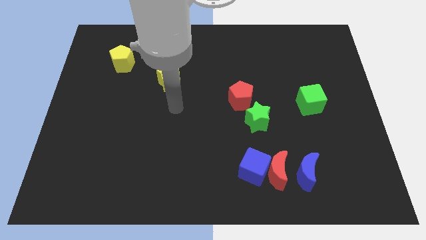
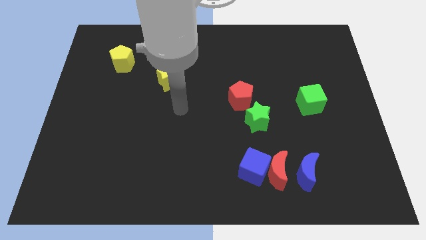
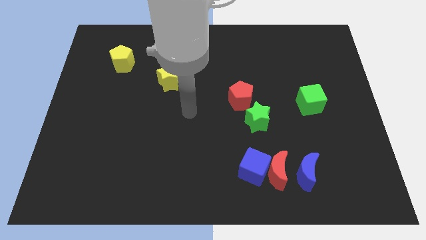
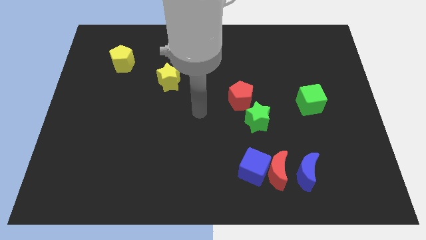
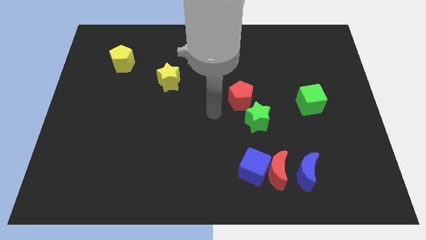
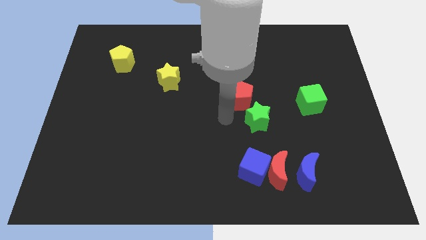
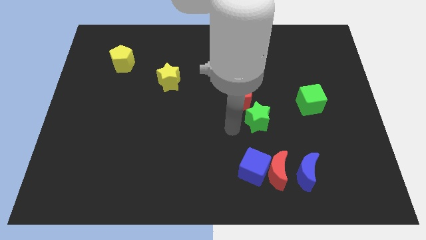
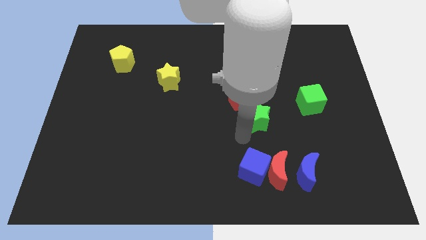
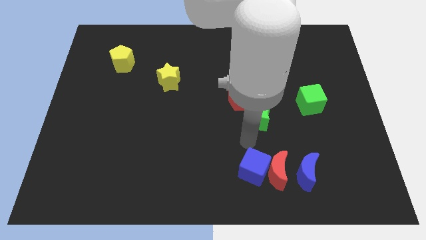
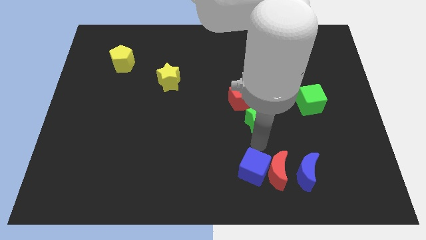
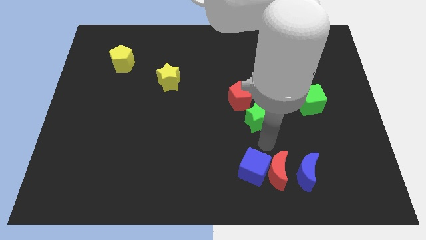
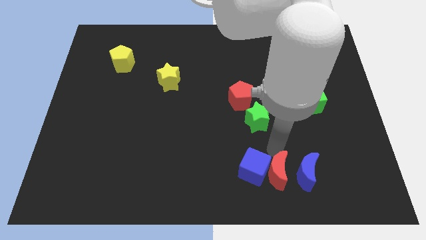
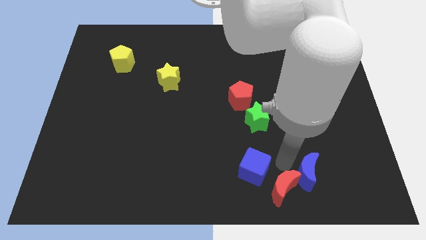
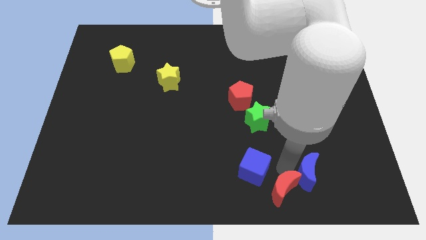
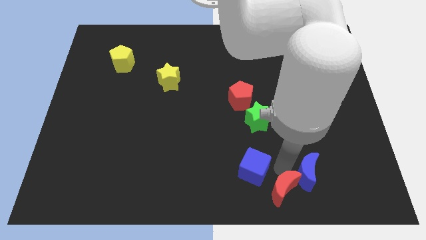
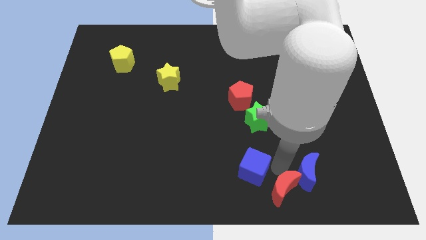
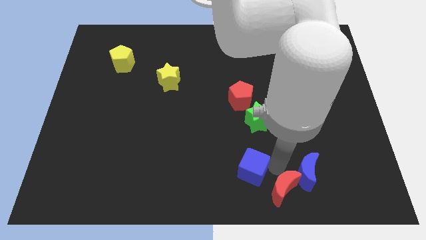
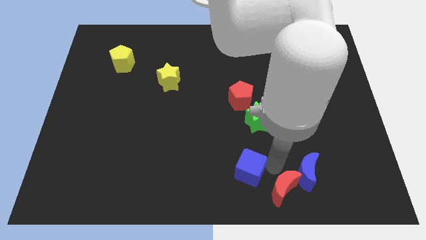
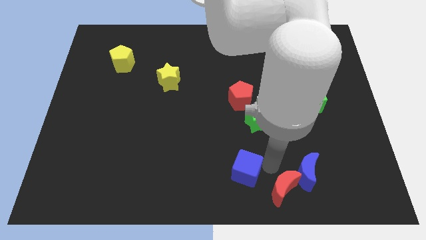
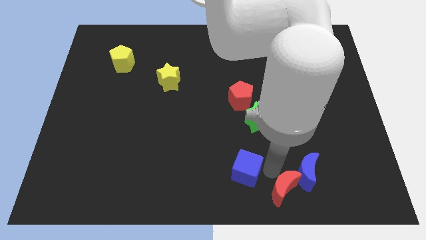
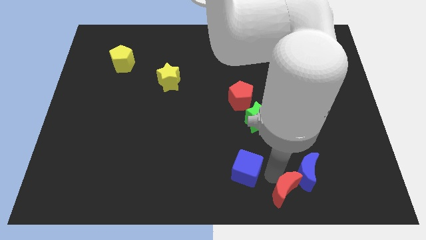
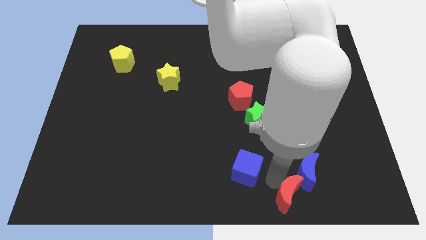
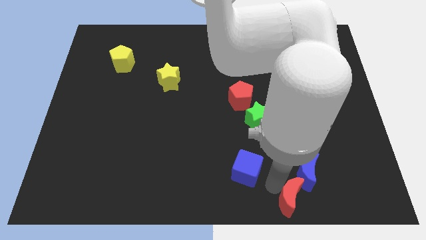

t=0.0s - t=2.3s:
move the blue cube away from the red moon

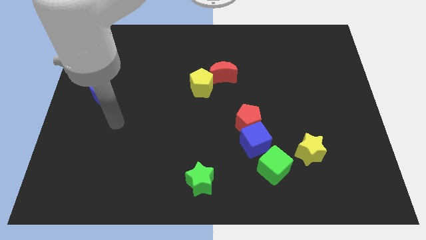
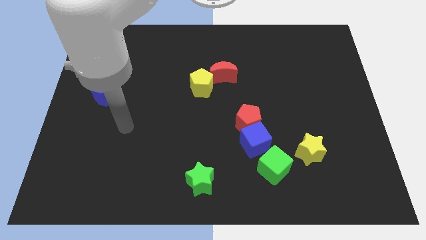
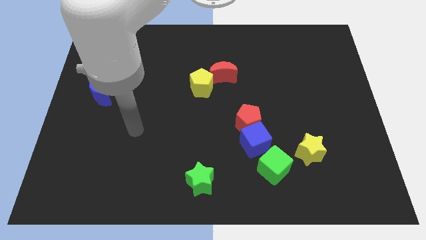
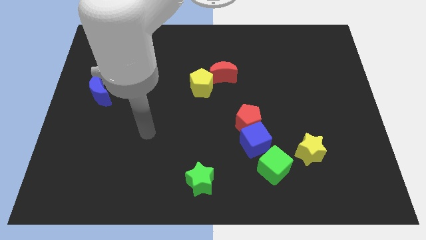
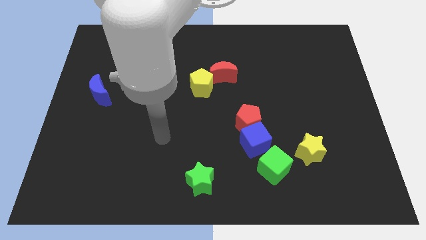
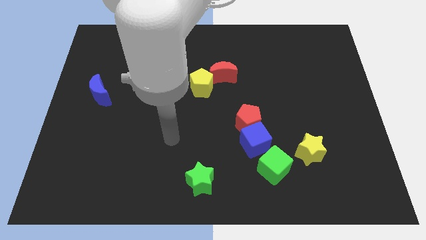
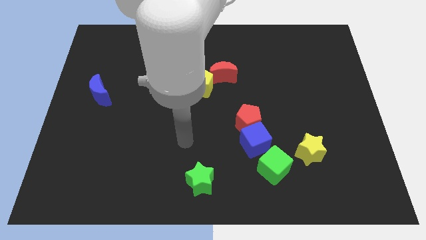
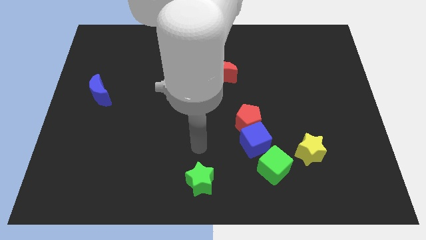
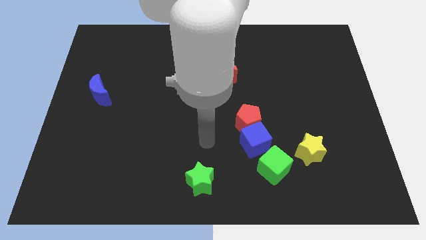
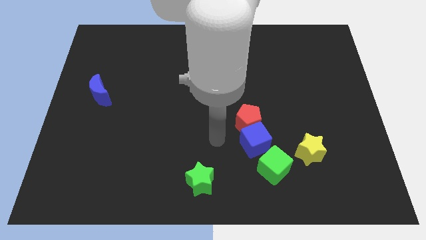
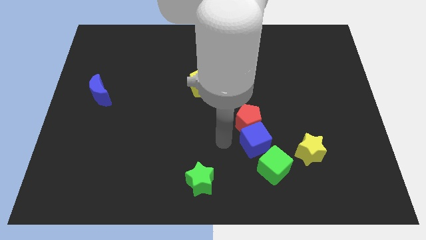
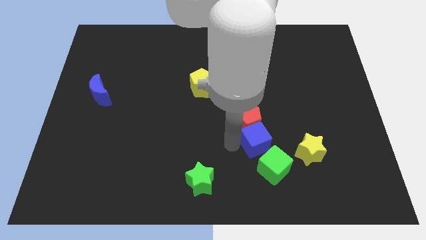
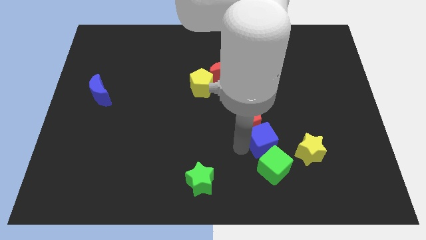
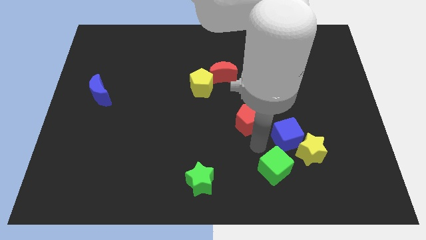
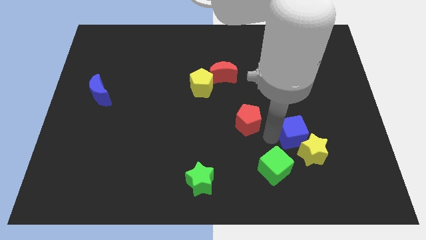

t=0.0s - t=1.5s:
move the red pentagon away from the blue cube

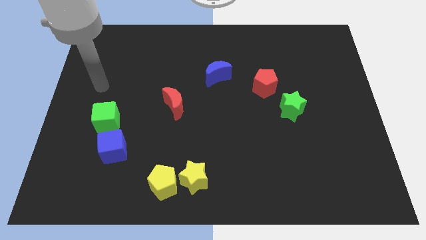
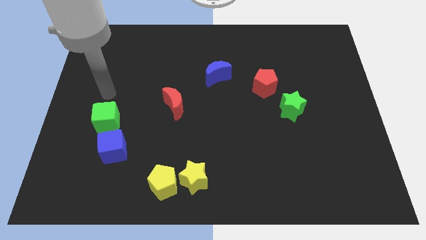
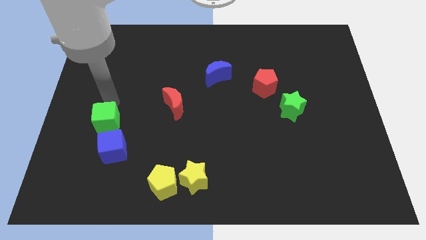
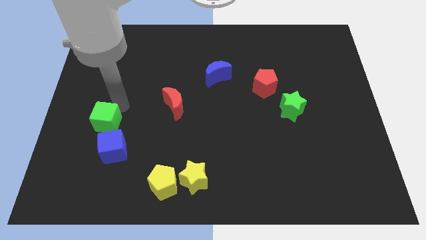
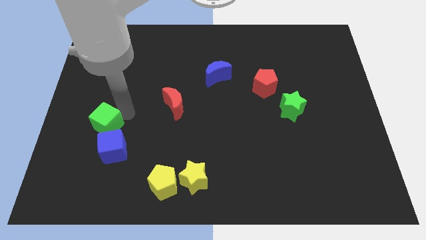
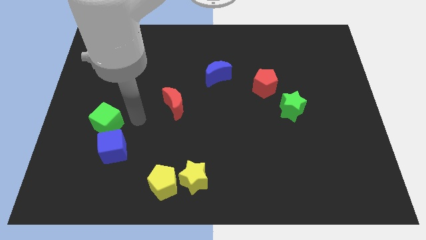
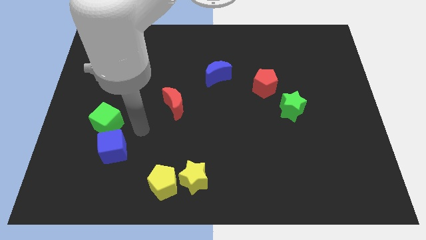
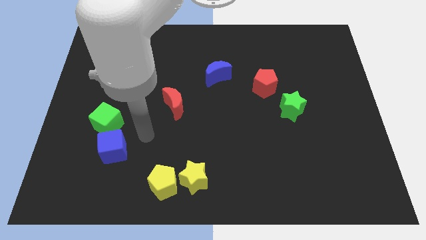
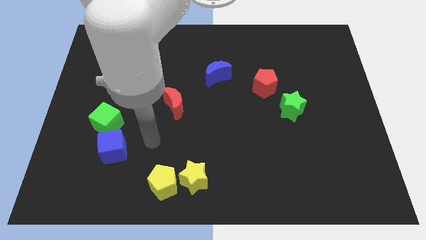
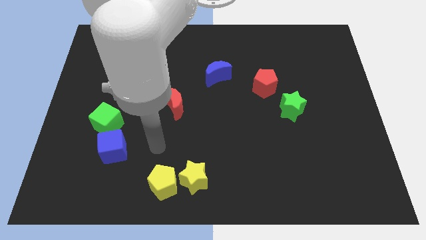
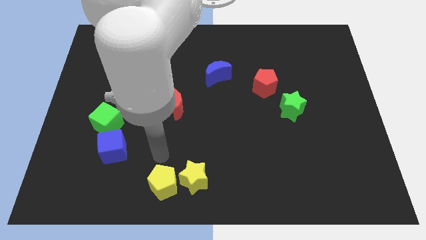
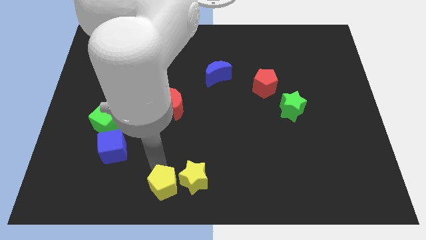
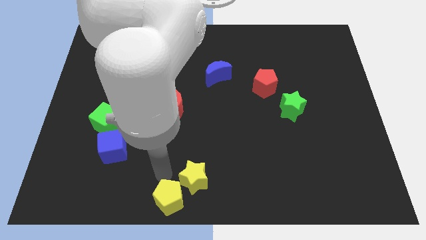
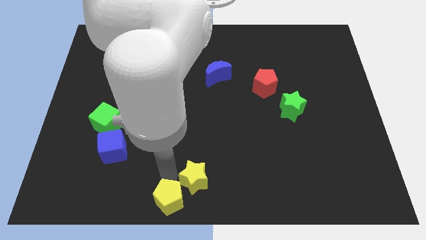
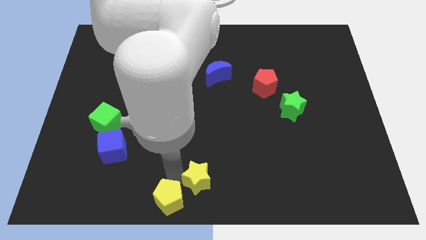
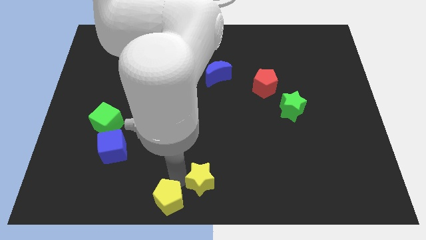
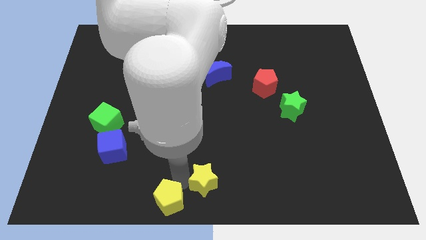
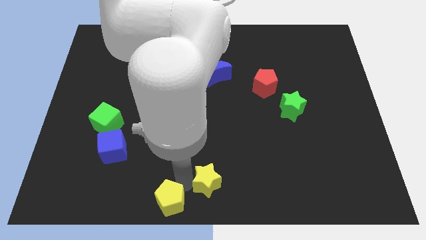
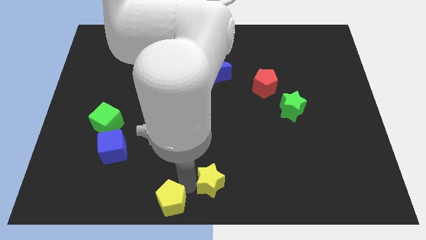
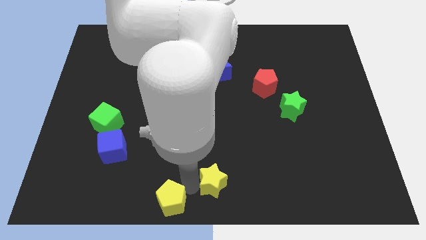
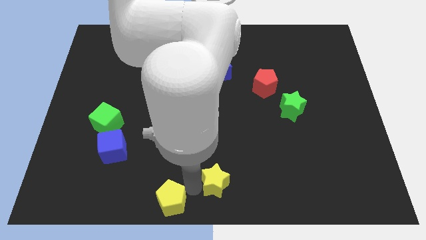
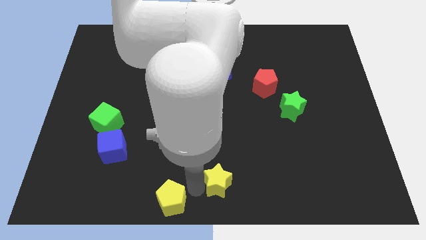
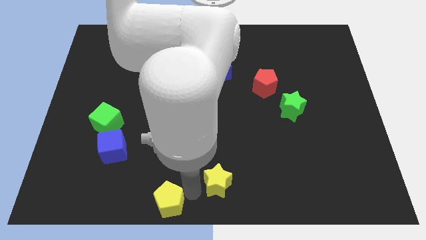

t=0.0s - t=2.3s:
separate the yellow star from the yellow pentagon

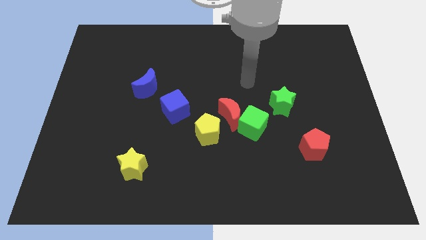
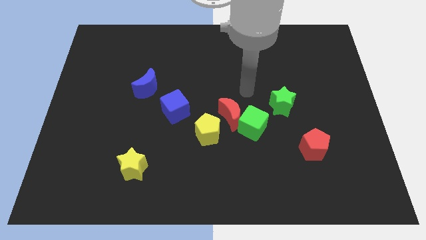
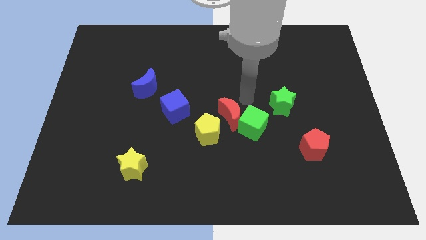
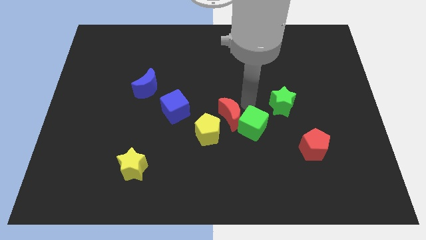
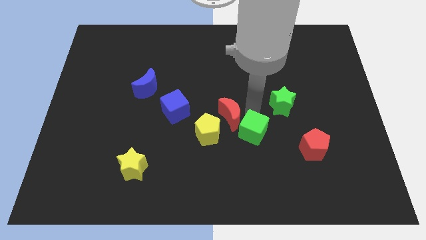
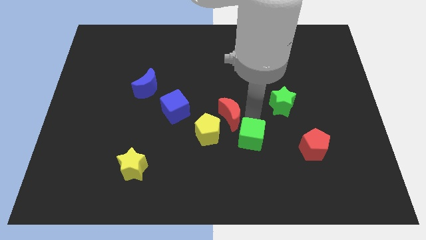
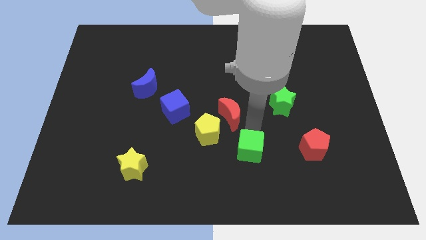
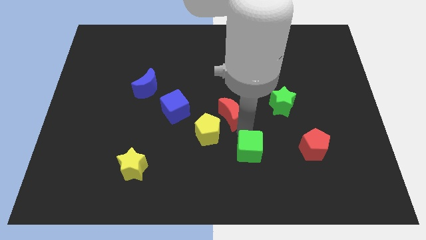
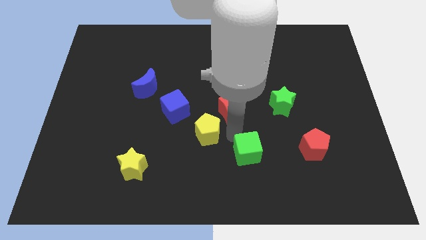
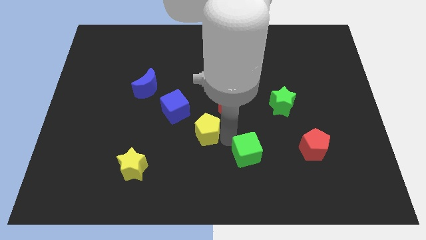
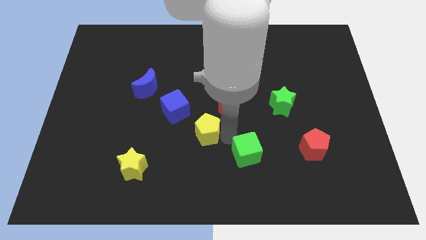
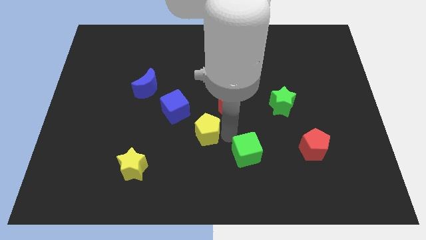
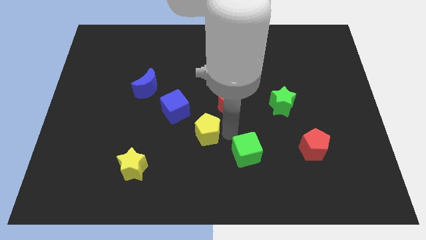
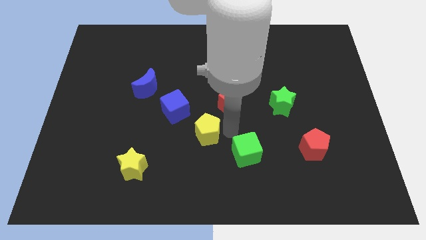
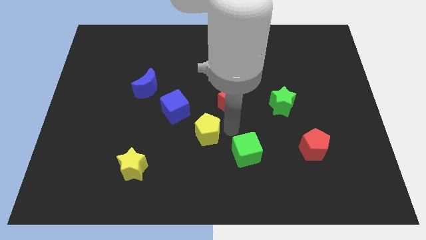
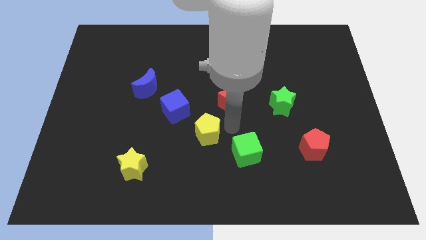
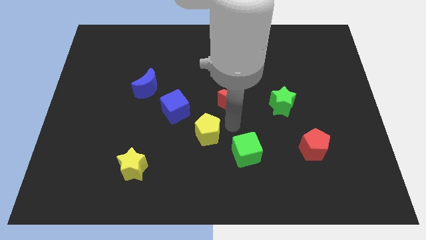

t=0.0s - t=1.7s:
separate the red moon from the green cube and yellow pentagon

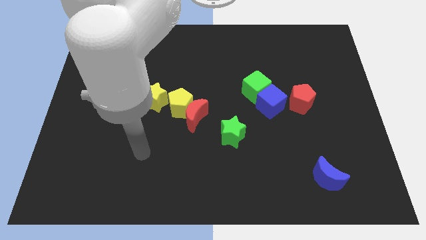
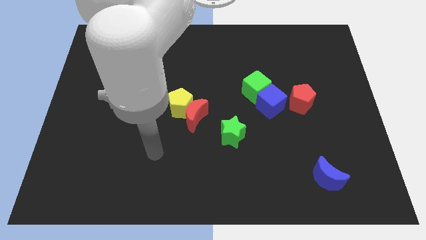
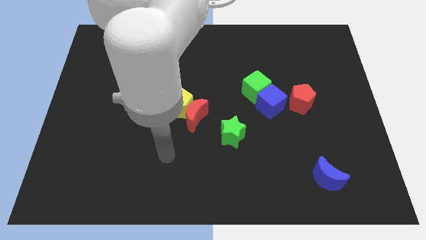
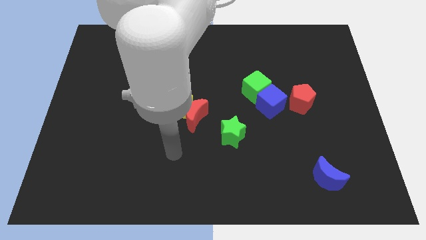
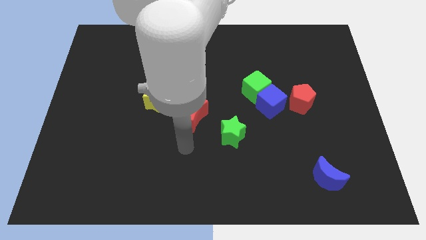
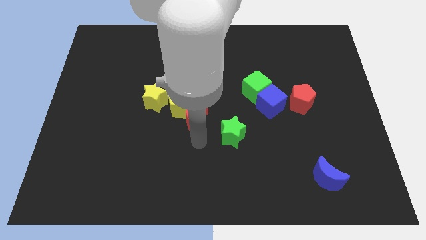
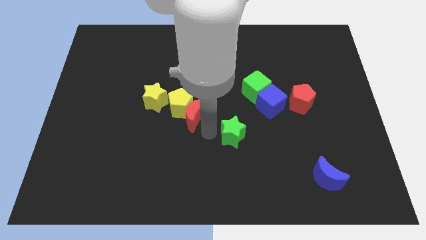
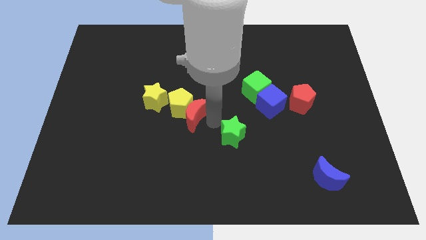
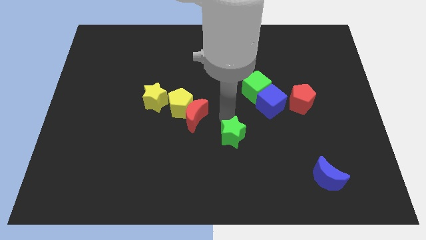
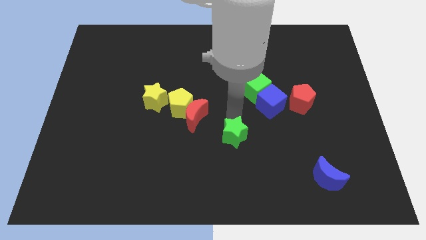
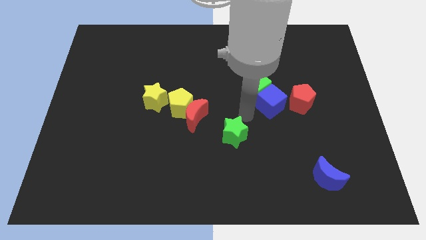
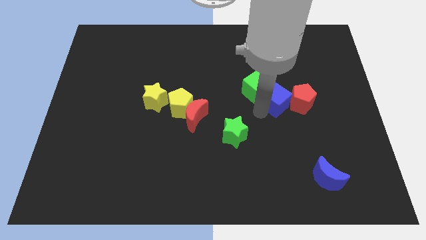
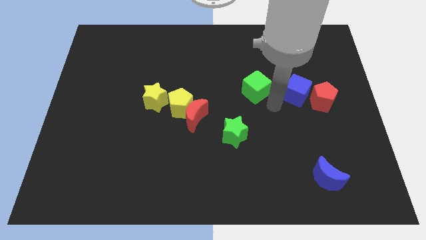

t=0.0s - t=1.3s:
move the green cube away from the blue cube

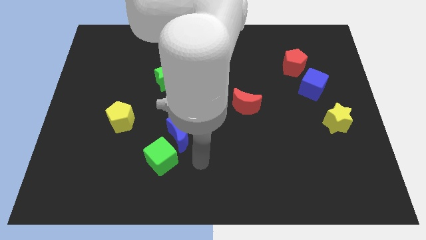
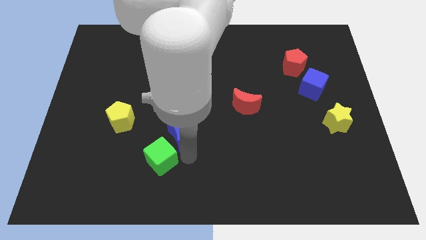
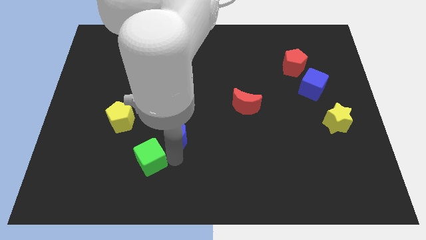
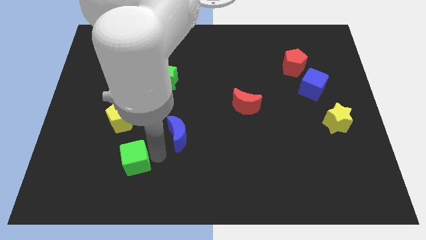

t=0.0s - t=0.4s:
separate the blue moon from the green cube
